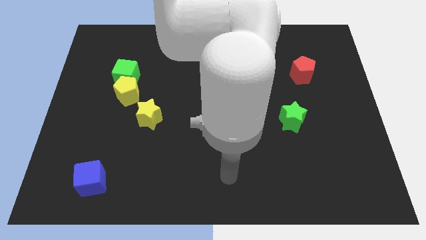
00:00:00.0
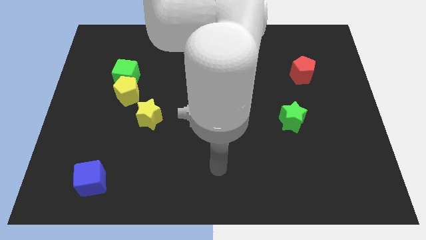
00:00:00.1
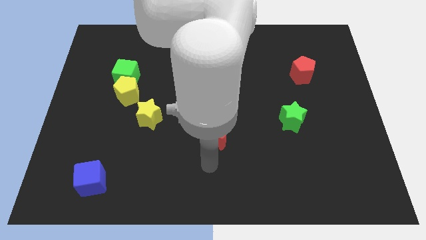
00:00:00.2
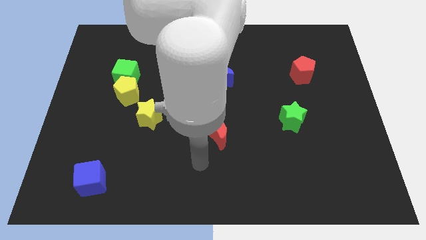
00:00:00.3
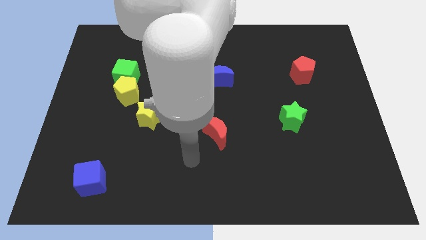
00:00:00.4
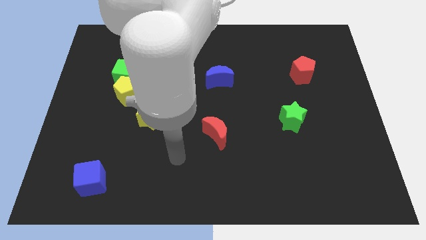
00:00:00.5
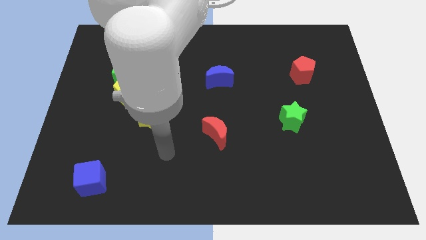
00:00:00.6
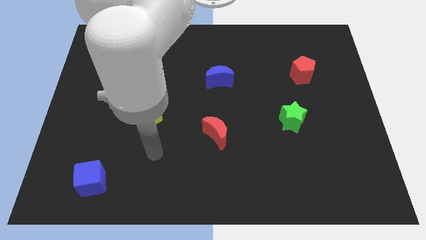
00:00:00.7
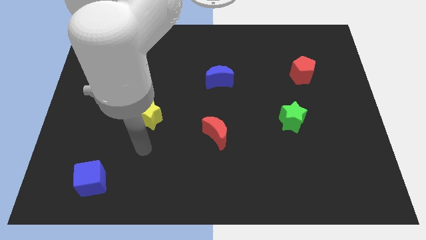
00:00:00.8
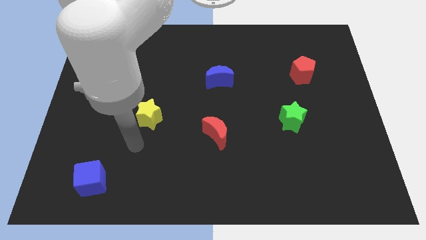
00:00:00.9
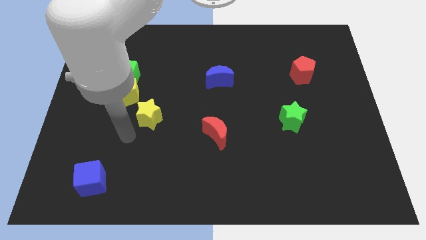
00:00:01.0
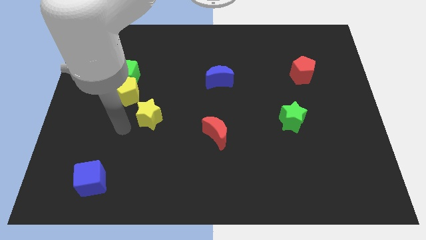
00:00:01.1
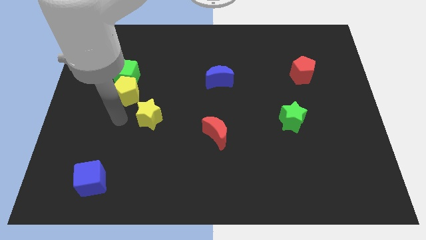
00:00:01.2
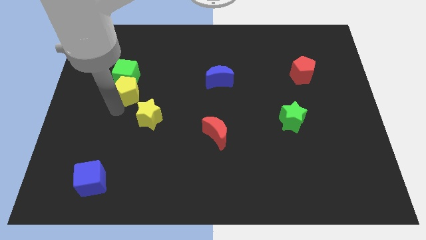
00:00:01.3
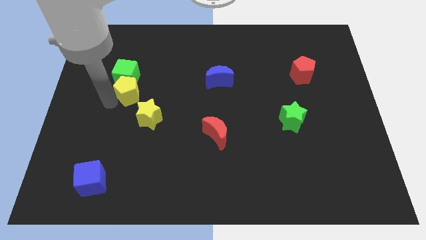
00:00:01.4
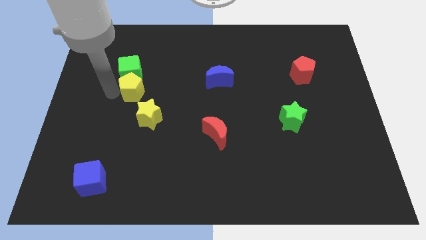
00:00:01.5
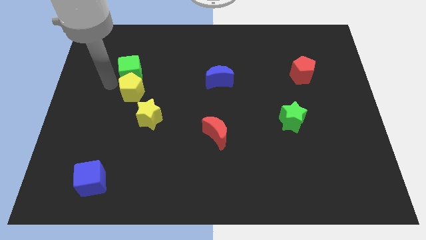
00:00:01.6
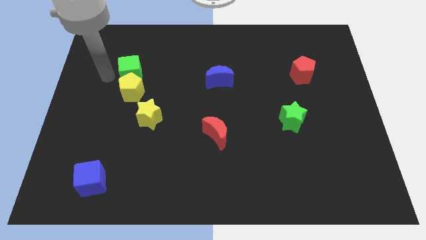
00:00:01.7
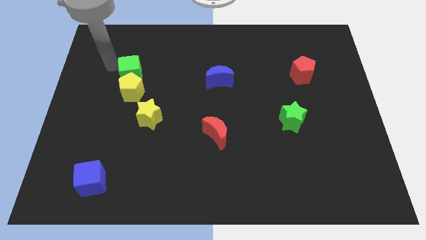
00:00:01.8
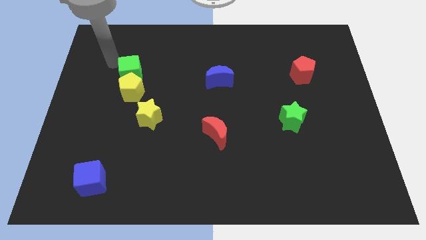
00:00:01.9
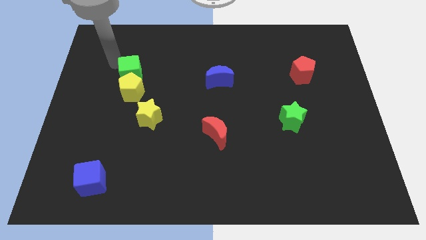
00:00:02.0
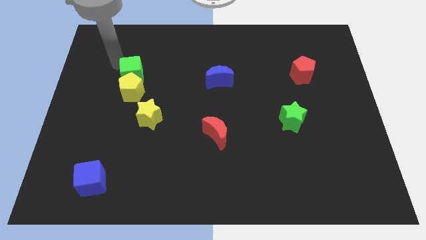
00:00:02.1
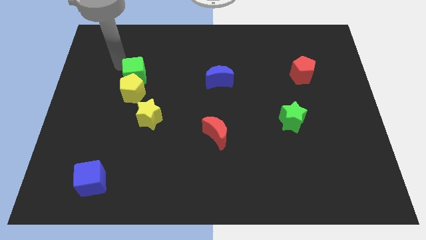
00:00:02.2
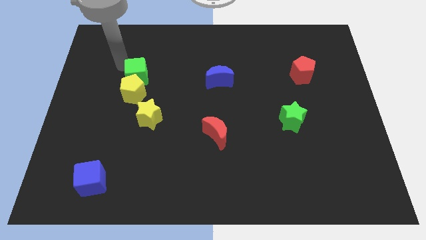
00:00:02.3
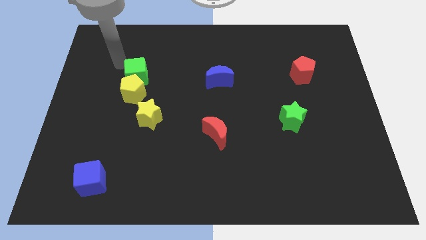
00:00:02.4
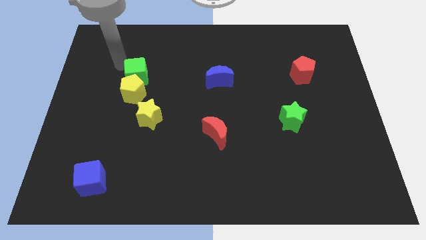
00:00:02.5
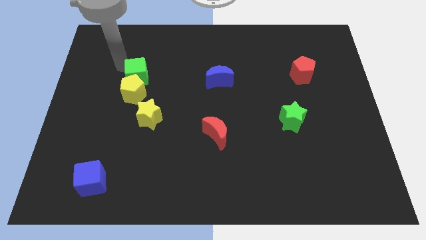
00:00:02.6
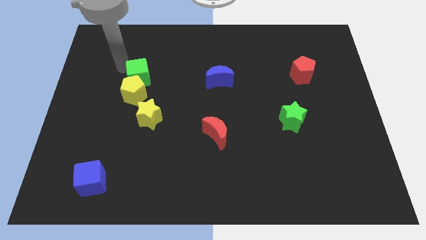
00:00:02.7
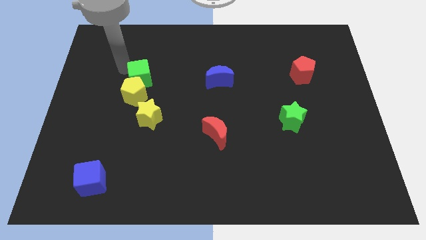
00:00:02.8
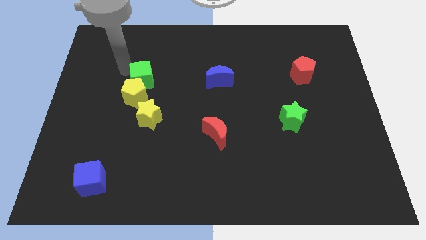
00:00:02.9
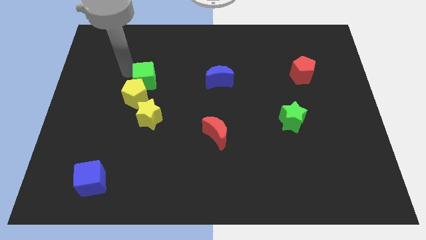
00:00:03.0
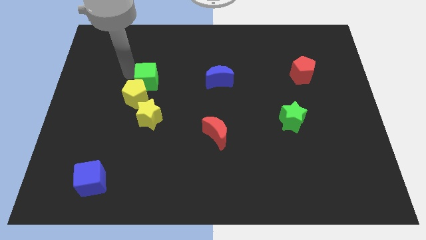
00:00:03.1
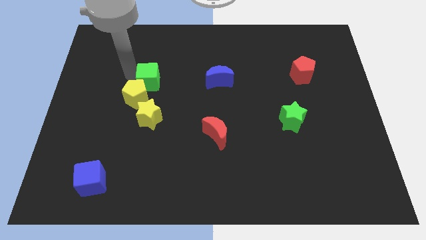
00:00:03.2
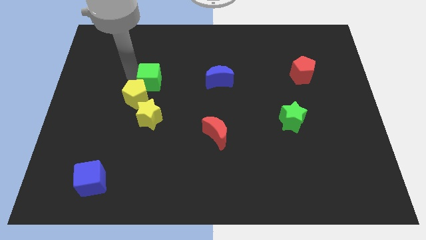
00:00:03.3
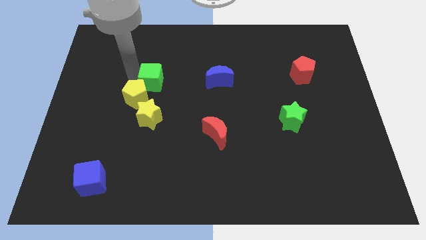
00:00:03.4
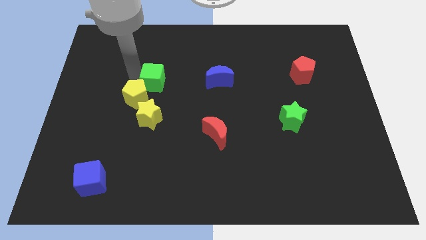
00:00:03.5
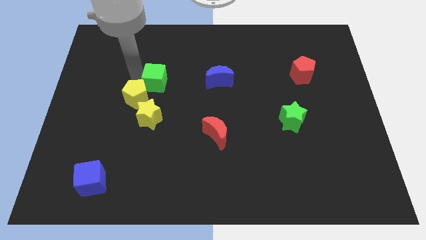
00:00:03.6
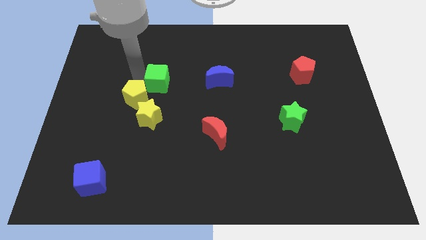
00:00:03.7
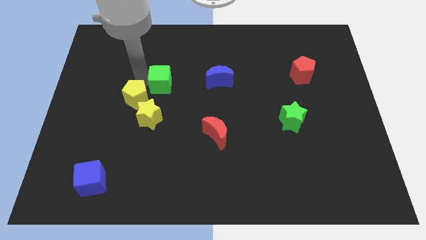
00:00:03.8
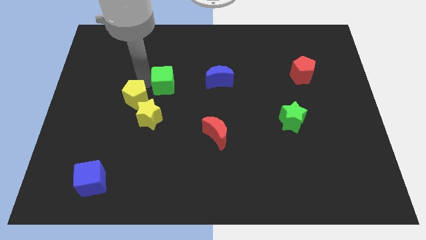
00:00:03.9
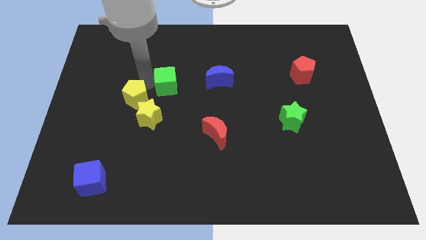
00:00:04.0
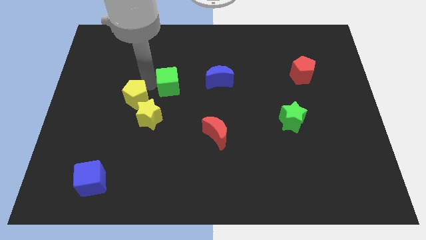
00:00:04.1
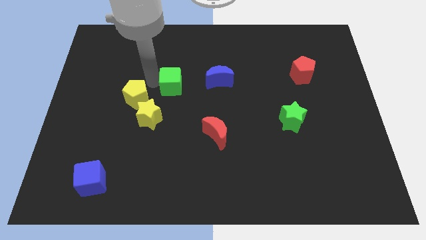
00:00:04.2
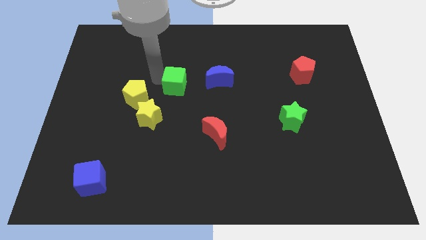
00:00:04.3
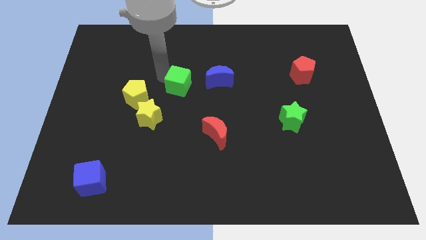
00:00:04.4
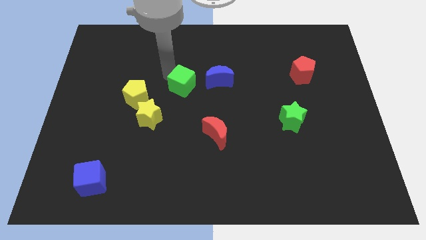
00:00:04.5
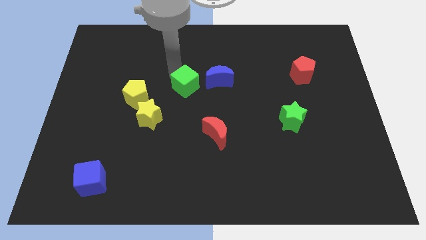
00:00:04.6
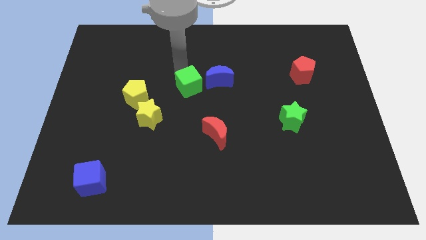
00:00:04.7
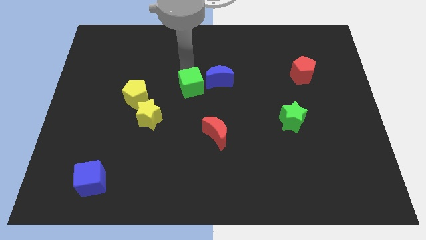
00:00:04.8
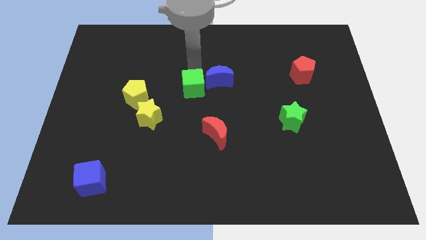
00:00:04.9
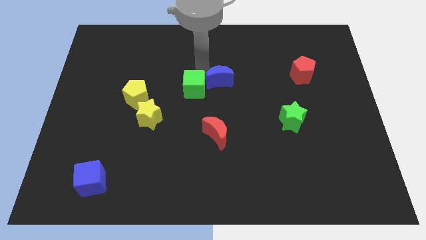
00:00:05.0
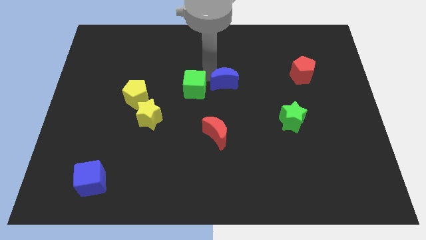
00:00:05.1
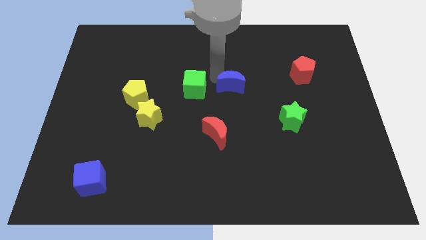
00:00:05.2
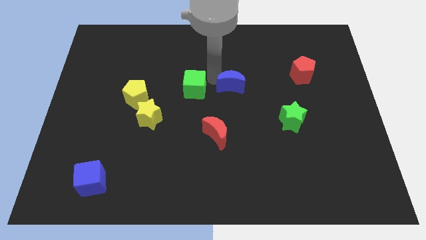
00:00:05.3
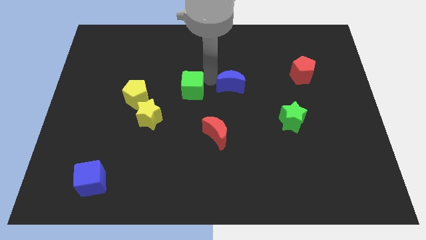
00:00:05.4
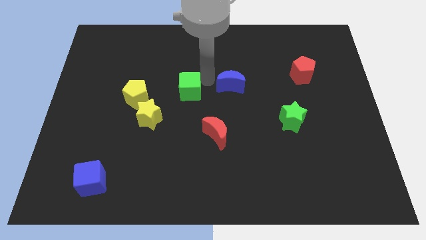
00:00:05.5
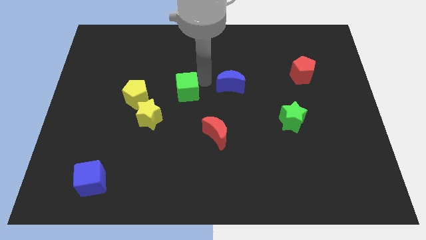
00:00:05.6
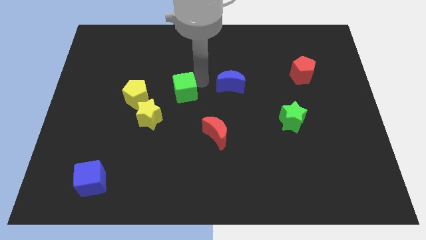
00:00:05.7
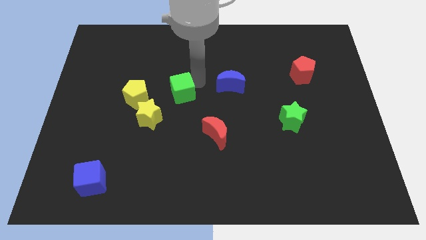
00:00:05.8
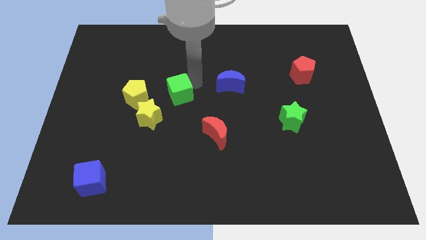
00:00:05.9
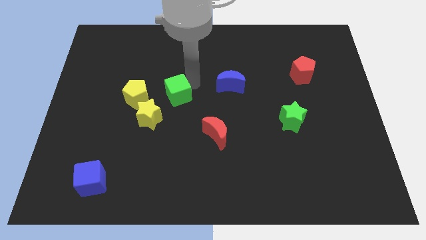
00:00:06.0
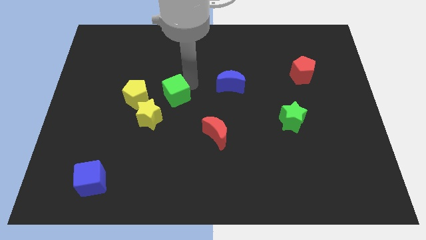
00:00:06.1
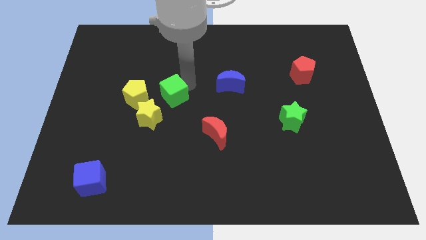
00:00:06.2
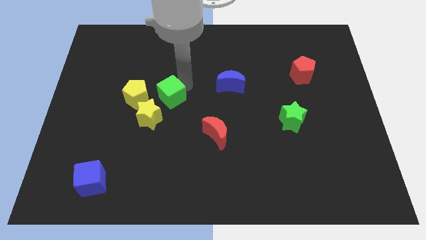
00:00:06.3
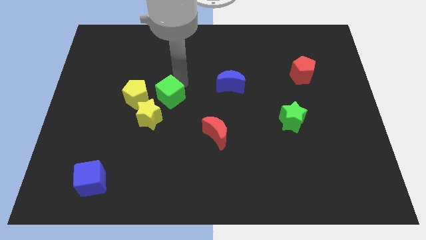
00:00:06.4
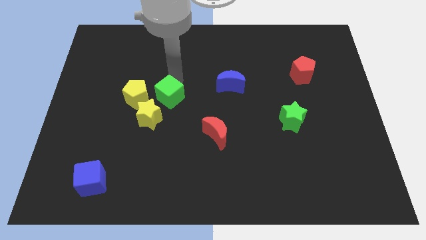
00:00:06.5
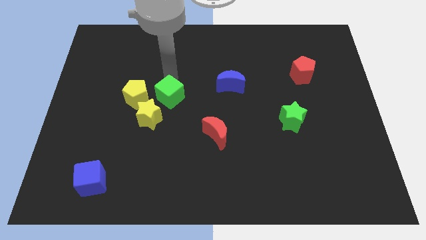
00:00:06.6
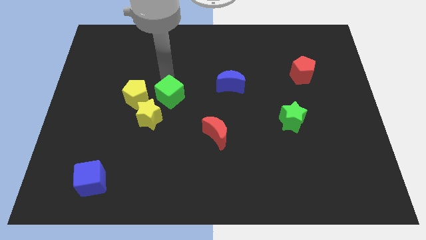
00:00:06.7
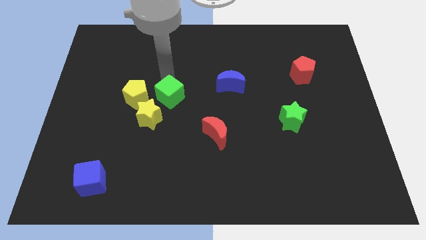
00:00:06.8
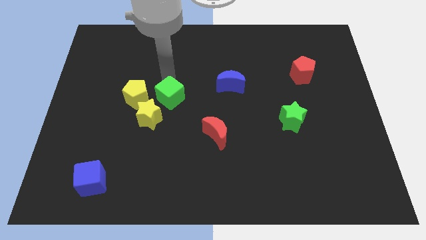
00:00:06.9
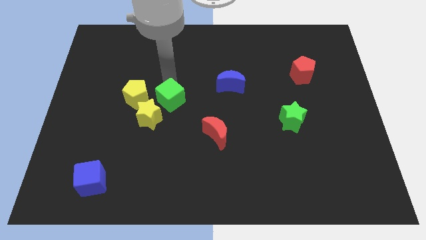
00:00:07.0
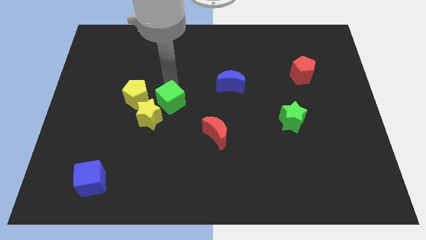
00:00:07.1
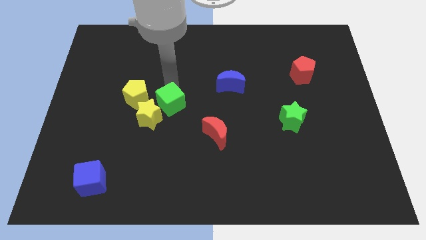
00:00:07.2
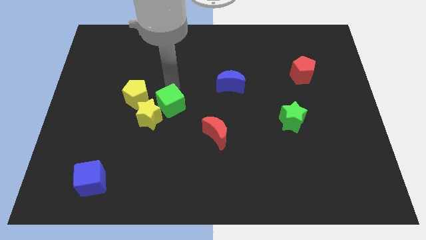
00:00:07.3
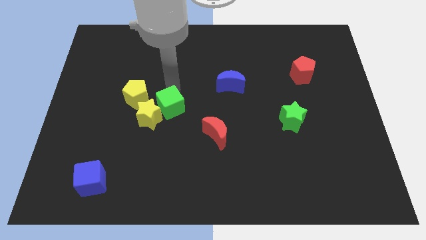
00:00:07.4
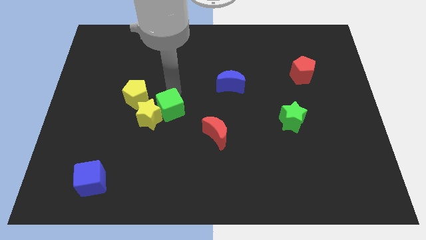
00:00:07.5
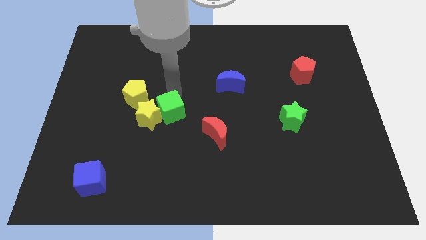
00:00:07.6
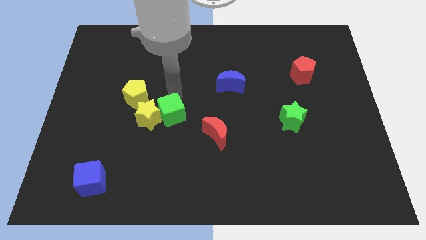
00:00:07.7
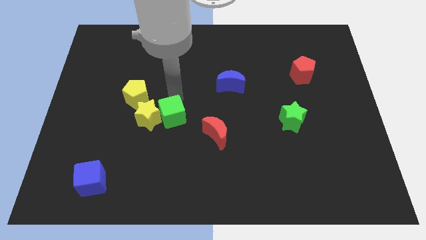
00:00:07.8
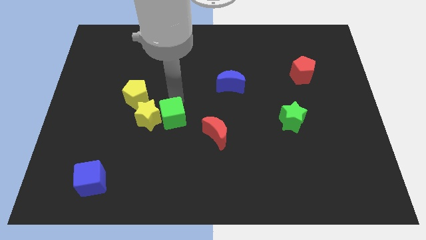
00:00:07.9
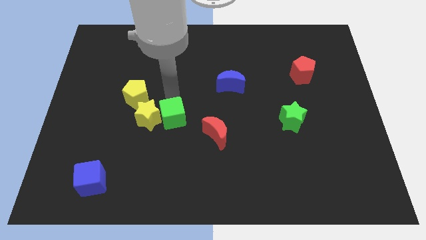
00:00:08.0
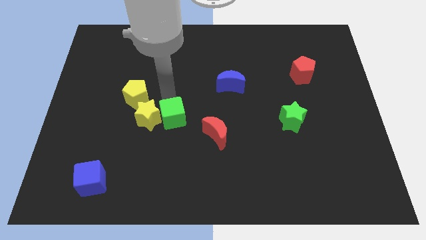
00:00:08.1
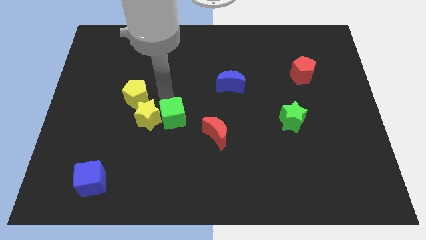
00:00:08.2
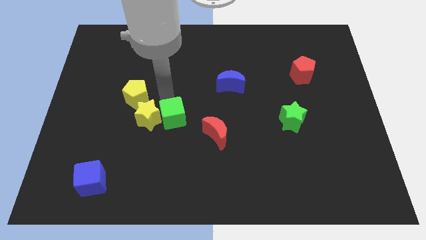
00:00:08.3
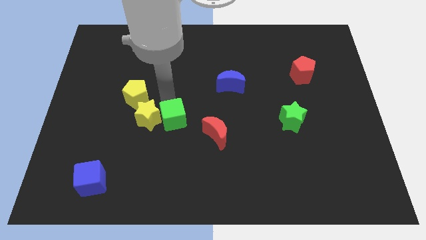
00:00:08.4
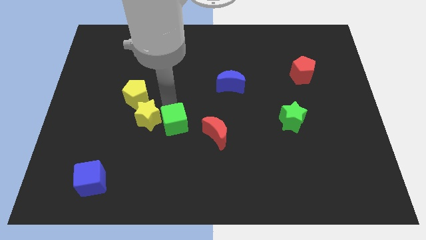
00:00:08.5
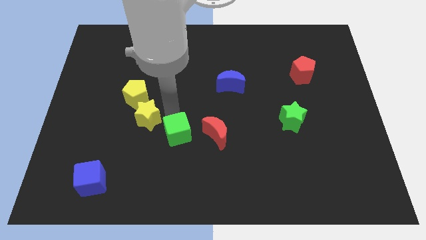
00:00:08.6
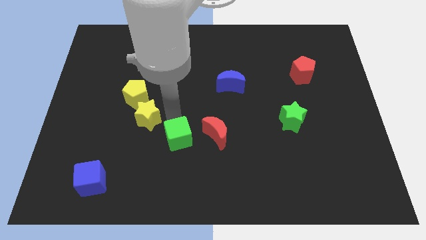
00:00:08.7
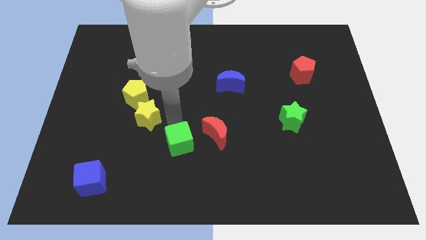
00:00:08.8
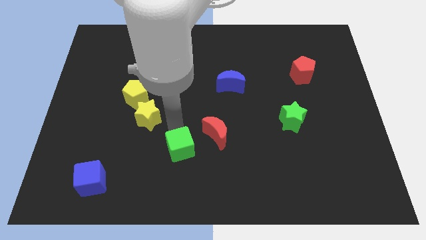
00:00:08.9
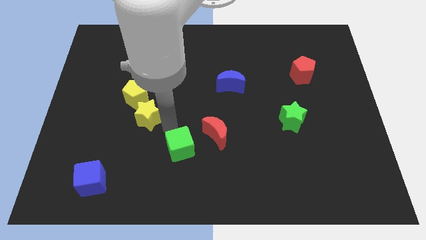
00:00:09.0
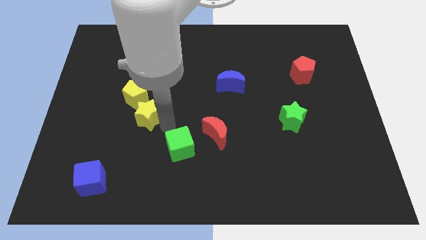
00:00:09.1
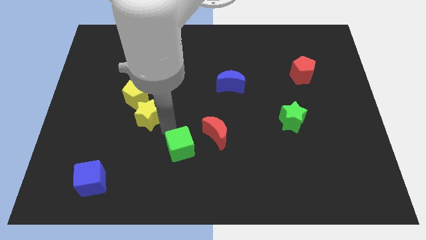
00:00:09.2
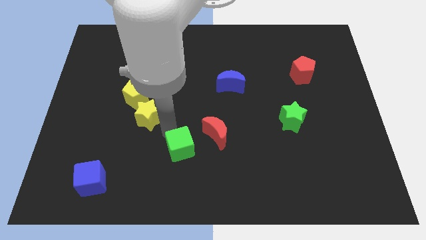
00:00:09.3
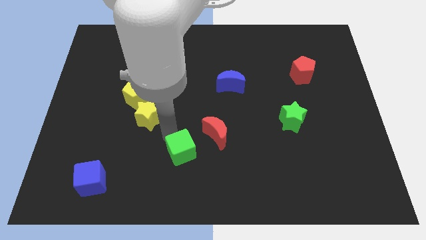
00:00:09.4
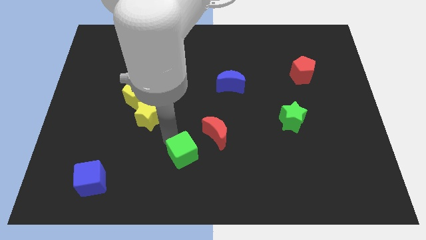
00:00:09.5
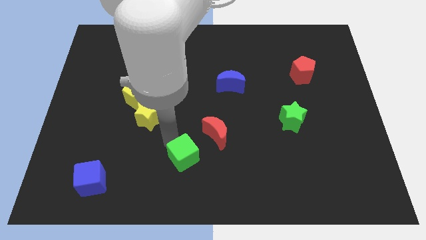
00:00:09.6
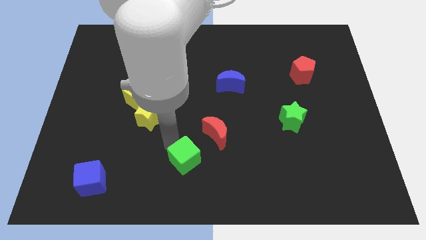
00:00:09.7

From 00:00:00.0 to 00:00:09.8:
put the green cube to the bottom
